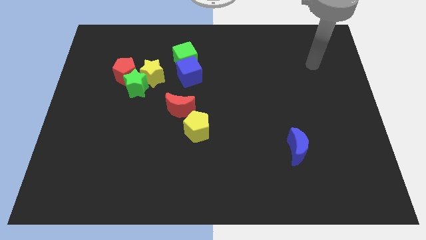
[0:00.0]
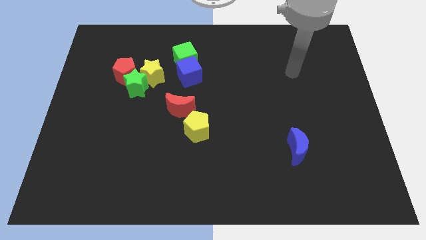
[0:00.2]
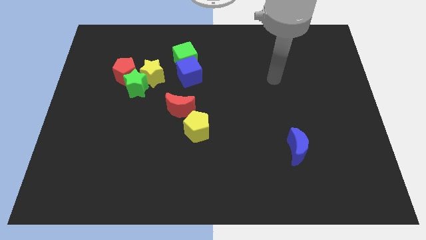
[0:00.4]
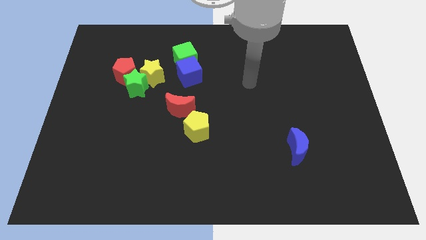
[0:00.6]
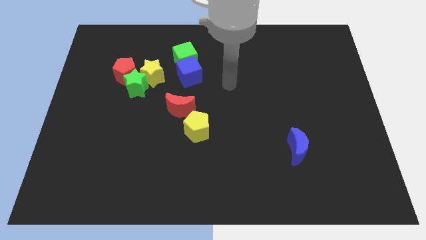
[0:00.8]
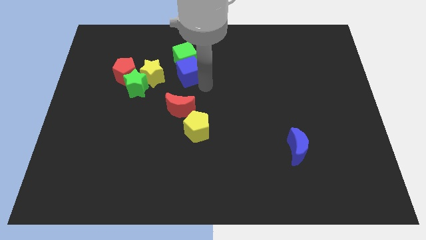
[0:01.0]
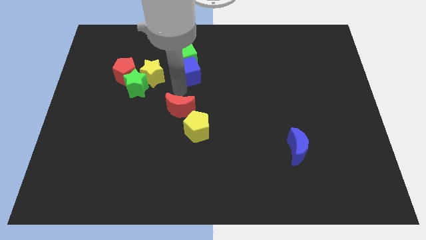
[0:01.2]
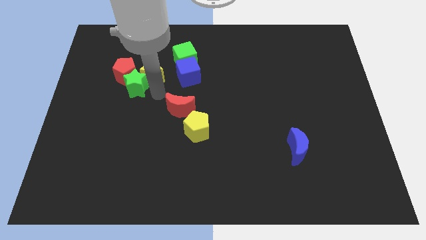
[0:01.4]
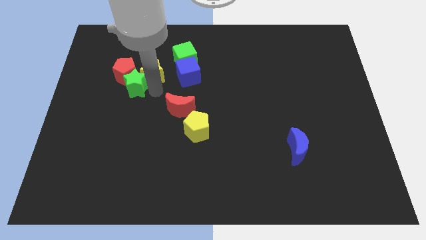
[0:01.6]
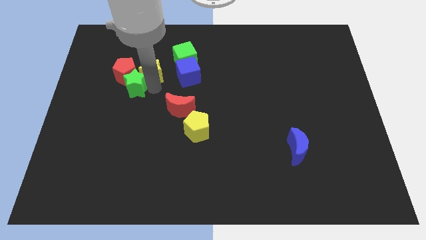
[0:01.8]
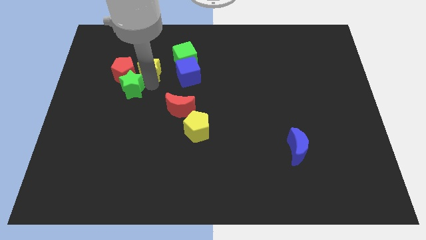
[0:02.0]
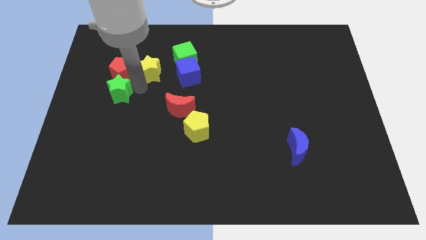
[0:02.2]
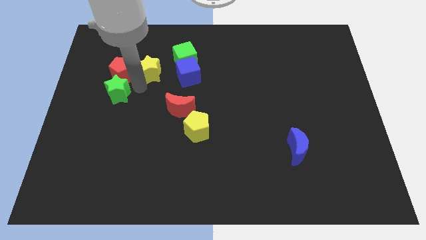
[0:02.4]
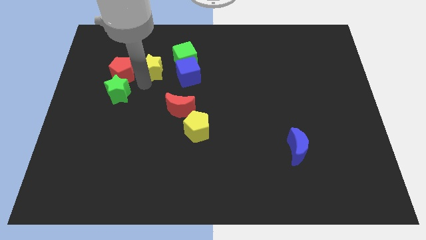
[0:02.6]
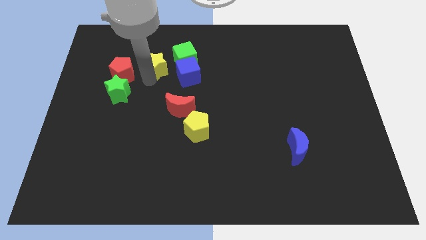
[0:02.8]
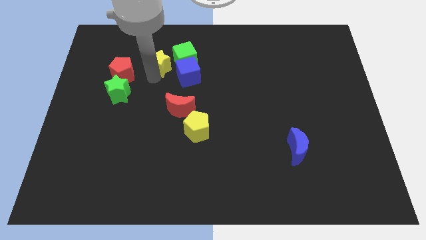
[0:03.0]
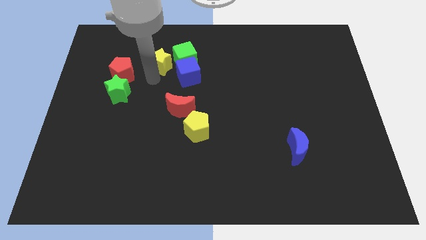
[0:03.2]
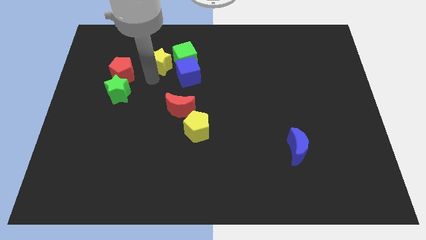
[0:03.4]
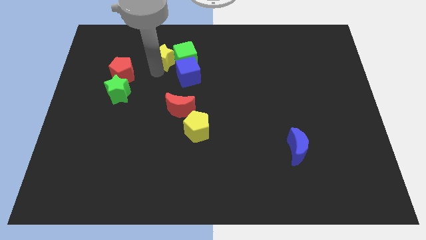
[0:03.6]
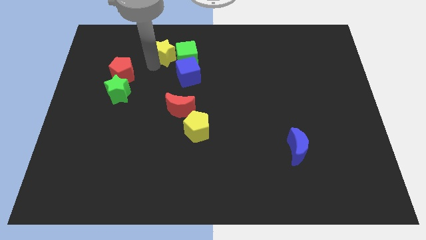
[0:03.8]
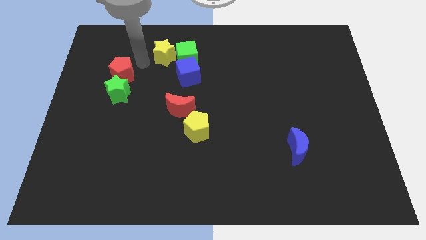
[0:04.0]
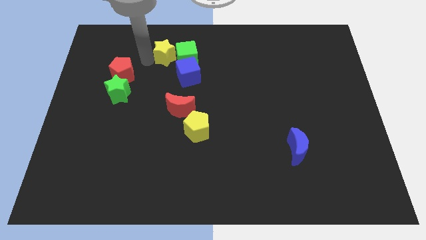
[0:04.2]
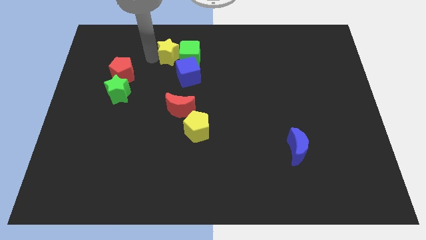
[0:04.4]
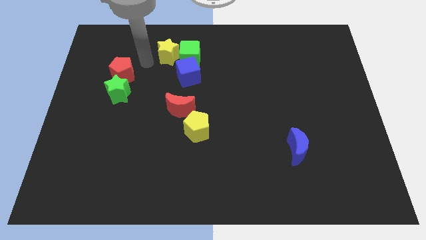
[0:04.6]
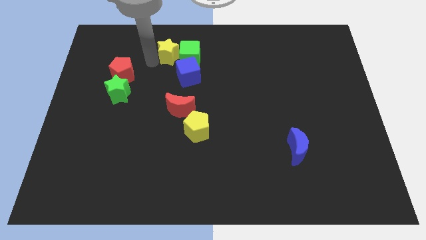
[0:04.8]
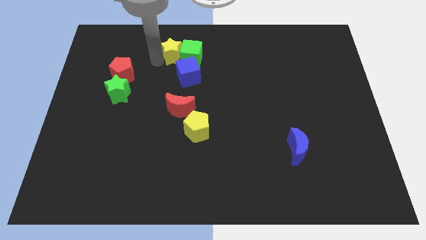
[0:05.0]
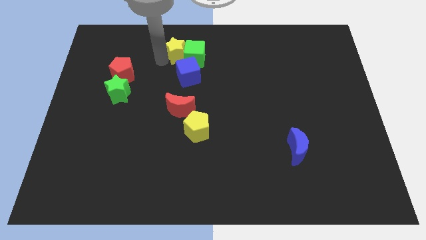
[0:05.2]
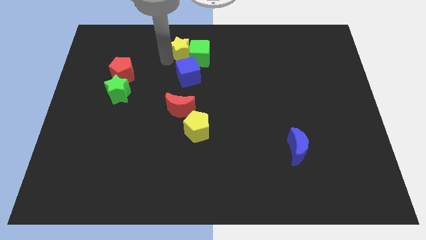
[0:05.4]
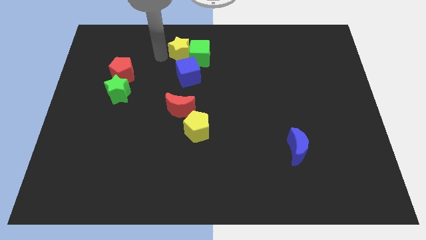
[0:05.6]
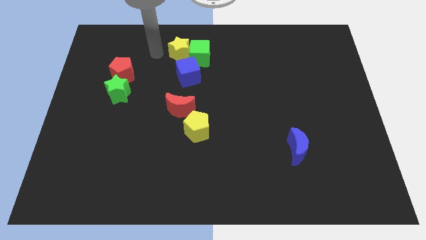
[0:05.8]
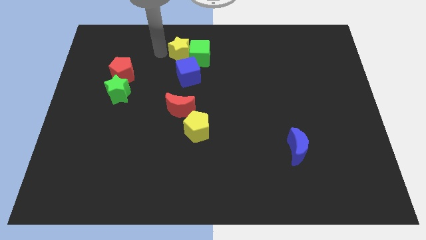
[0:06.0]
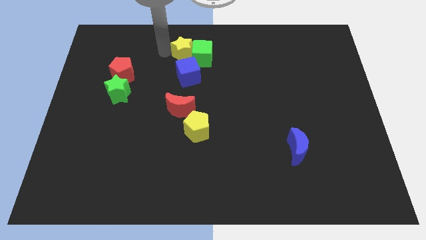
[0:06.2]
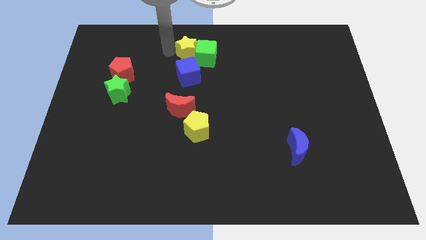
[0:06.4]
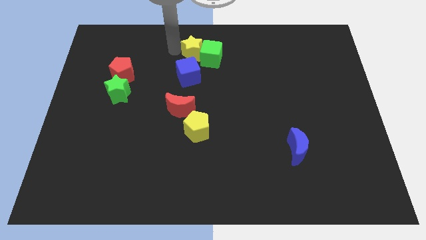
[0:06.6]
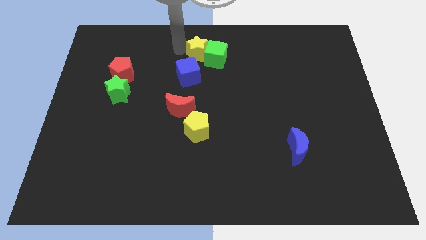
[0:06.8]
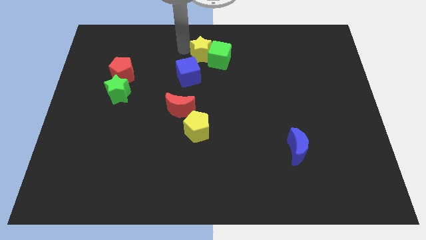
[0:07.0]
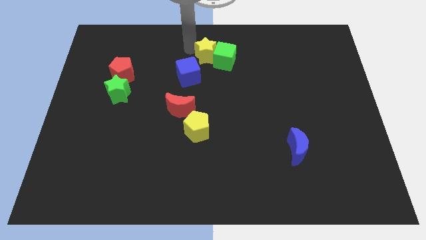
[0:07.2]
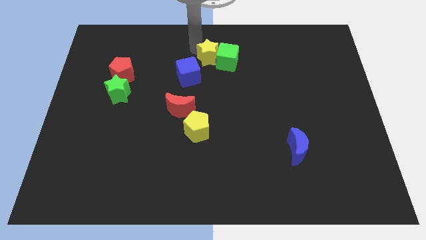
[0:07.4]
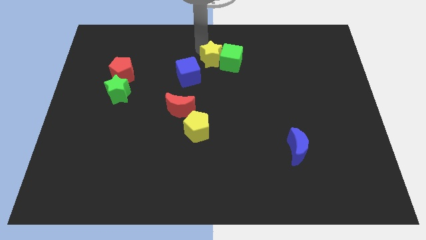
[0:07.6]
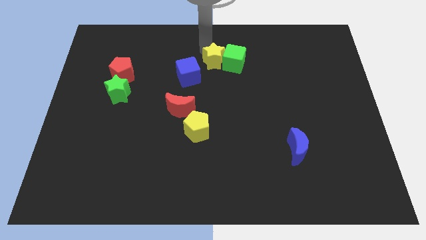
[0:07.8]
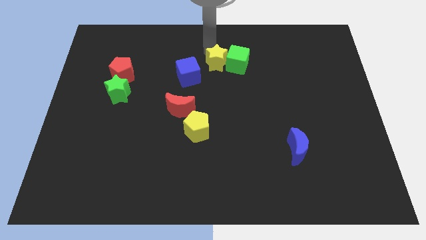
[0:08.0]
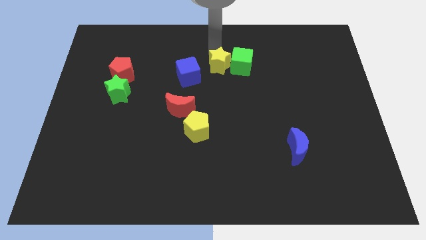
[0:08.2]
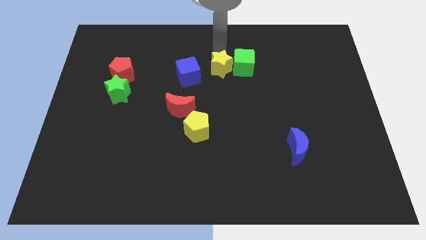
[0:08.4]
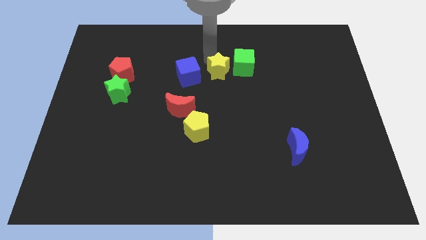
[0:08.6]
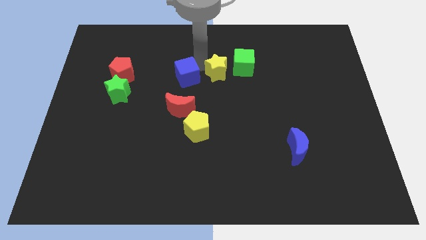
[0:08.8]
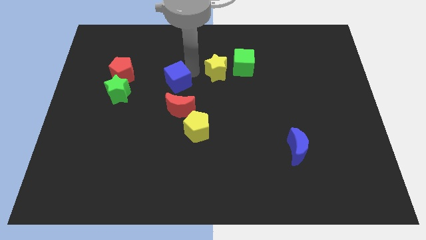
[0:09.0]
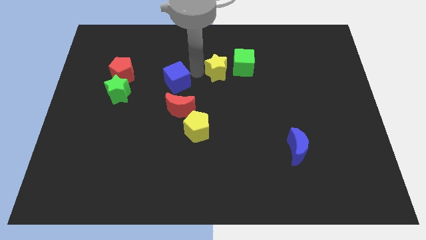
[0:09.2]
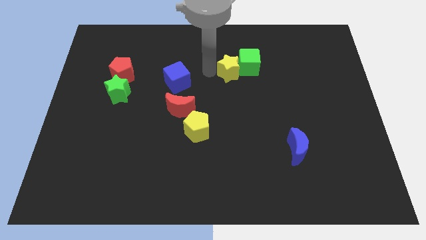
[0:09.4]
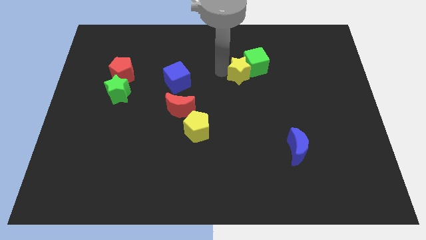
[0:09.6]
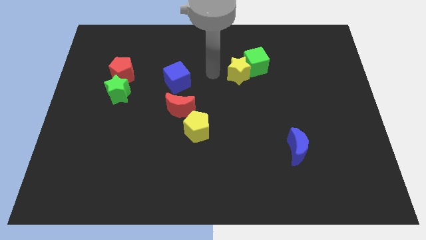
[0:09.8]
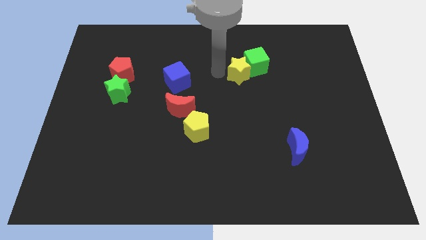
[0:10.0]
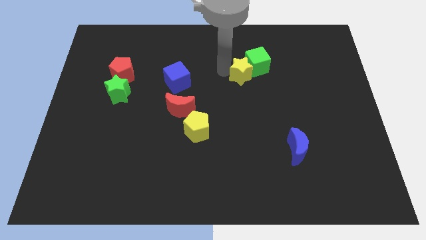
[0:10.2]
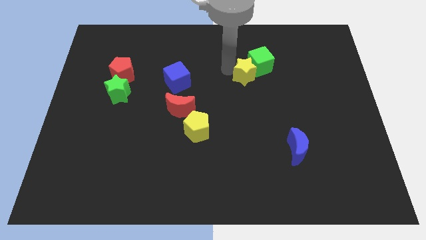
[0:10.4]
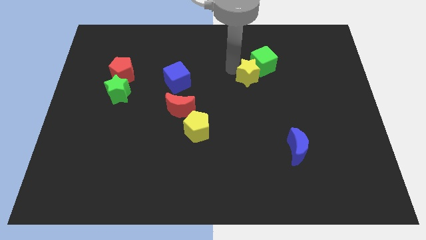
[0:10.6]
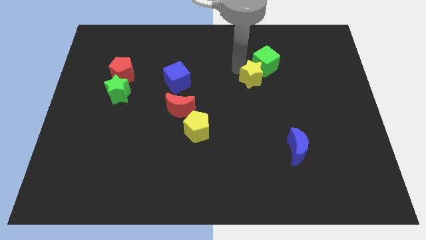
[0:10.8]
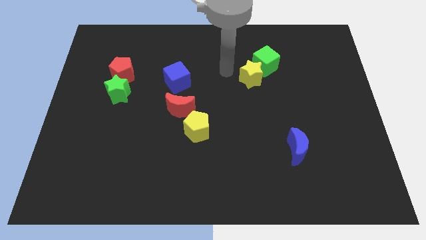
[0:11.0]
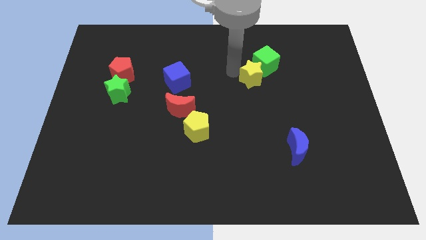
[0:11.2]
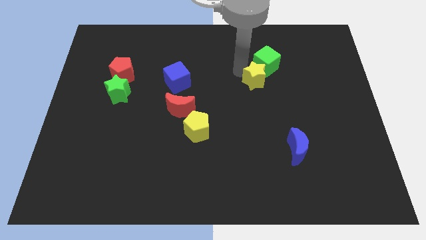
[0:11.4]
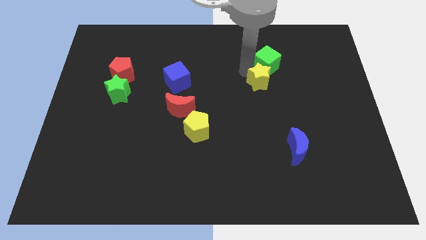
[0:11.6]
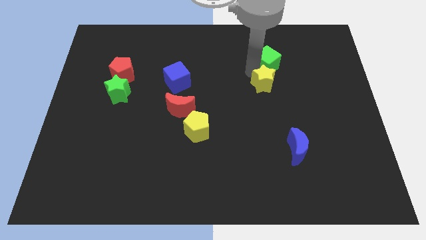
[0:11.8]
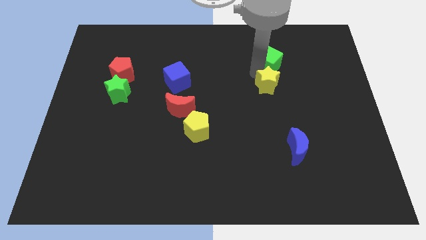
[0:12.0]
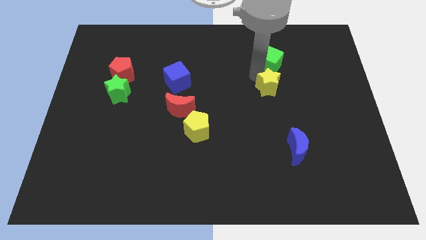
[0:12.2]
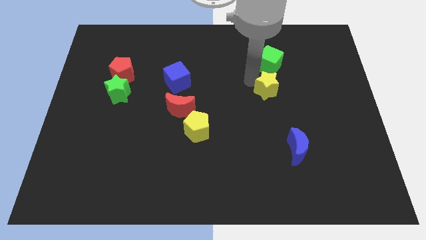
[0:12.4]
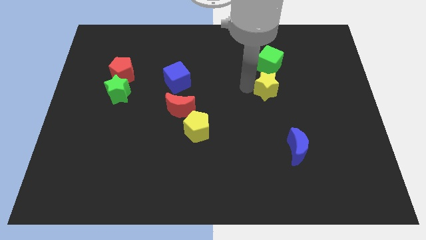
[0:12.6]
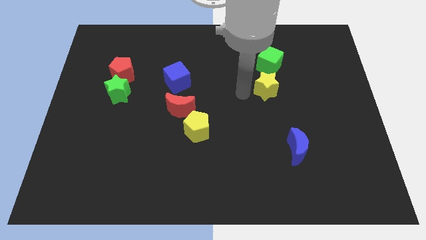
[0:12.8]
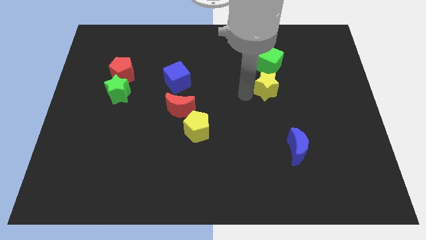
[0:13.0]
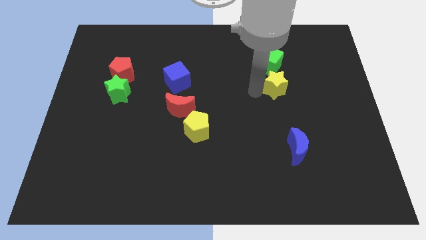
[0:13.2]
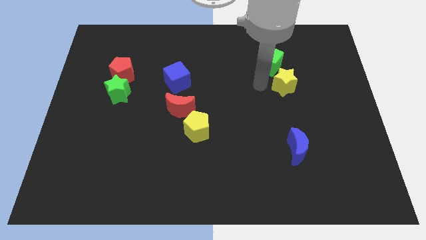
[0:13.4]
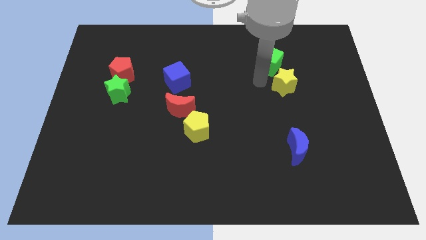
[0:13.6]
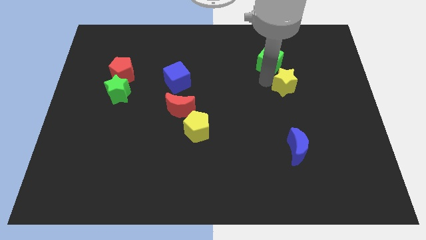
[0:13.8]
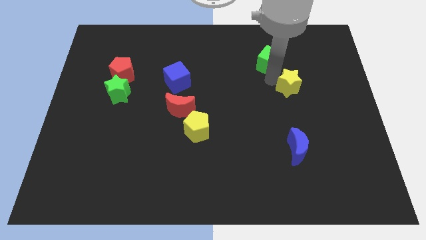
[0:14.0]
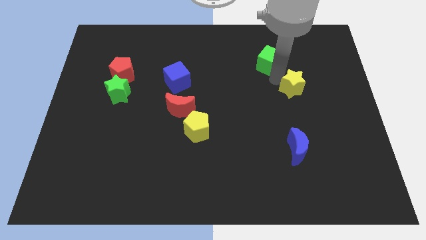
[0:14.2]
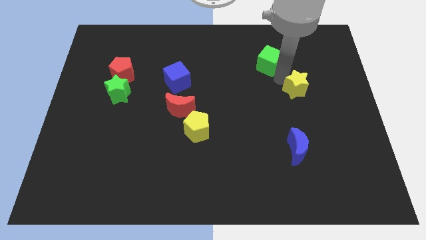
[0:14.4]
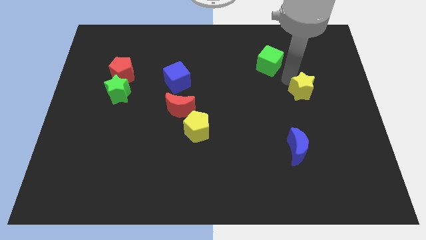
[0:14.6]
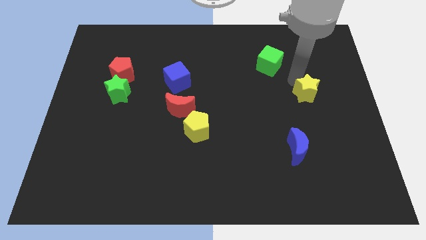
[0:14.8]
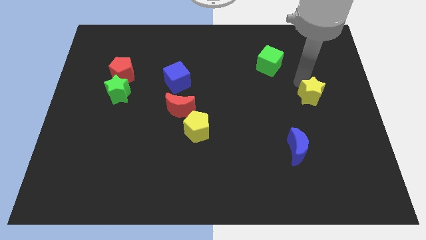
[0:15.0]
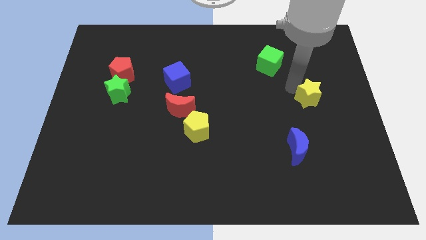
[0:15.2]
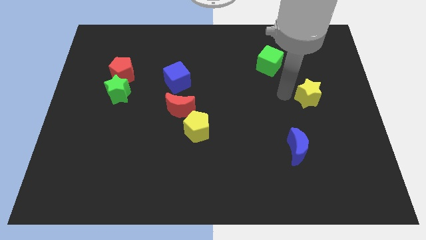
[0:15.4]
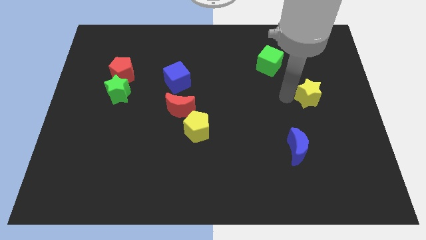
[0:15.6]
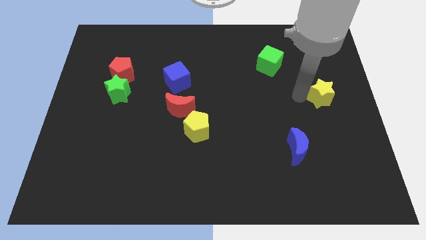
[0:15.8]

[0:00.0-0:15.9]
push the yellow star to the right side of the board
